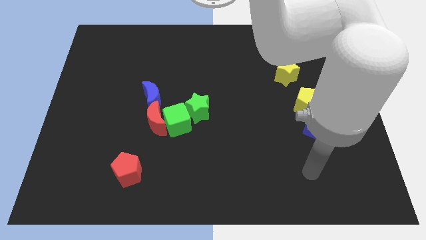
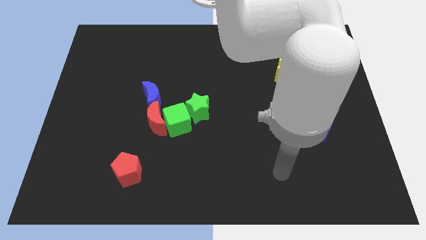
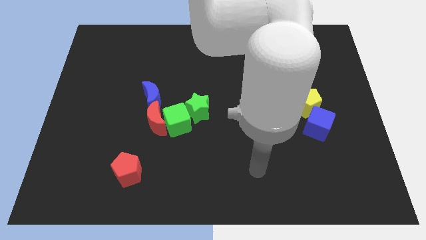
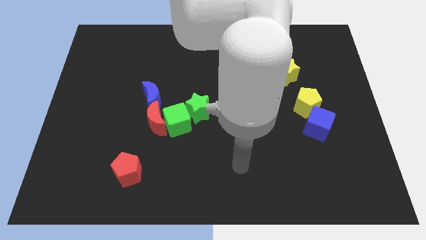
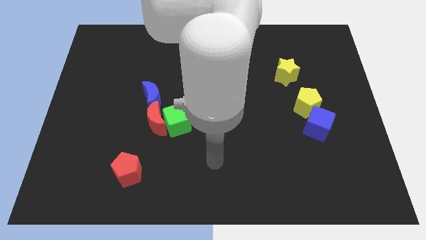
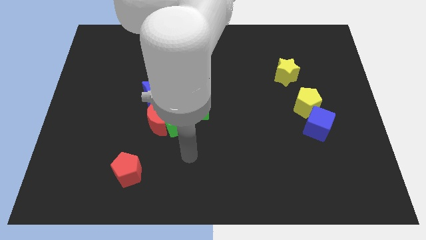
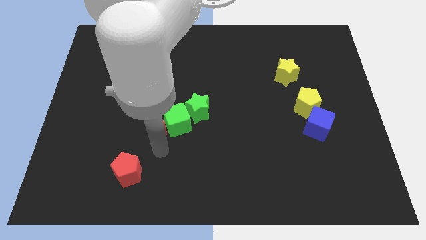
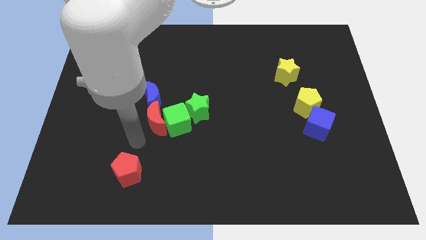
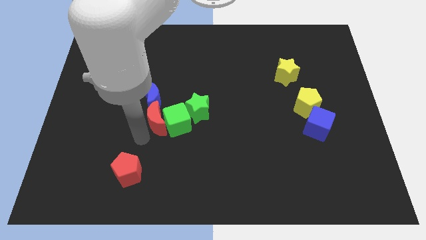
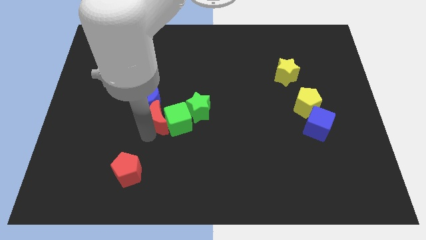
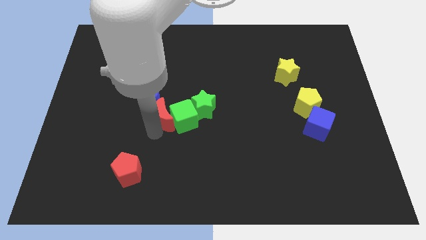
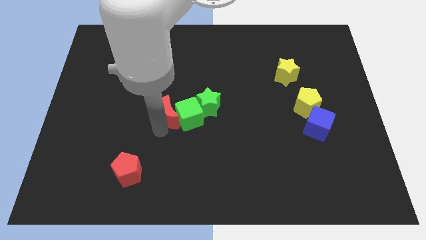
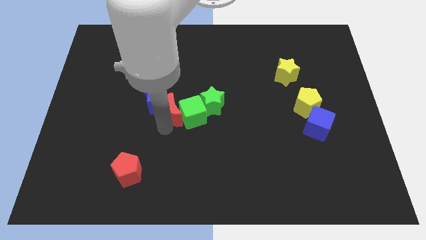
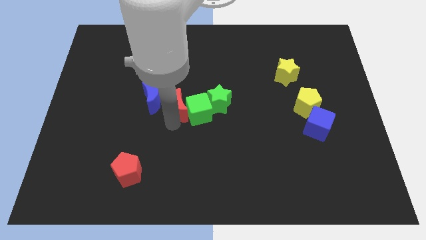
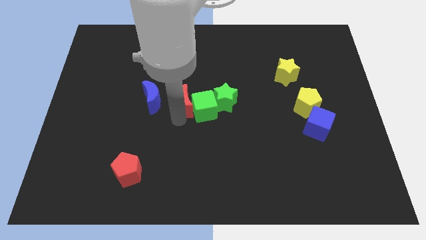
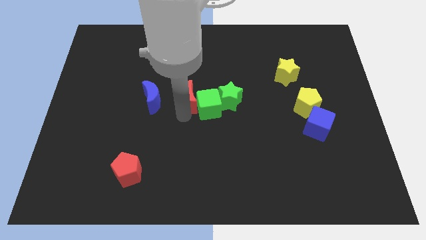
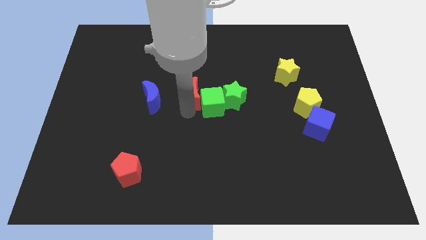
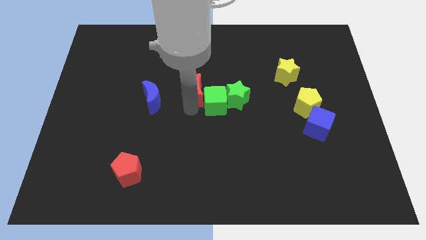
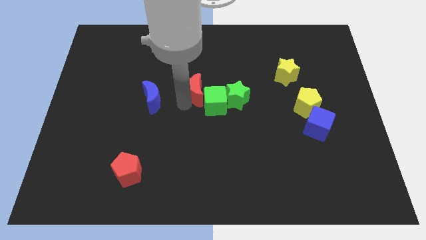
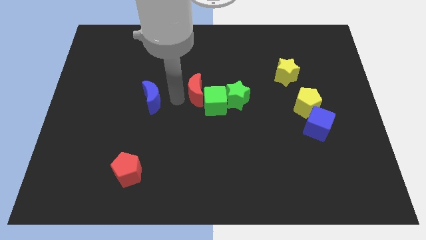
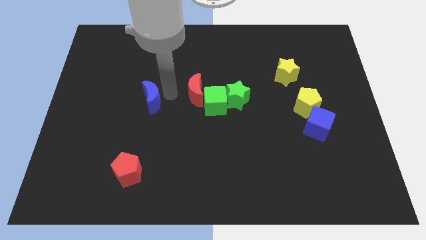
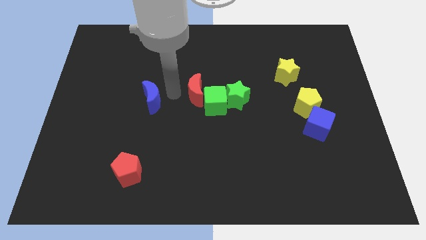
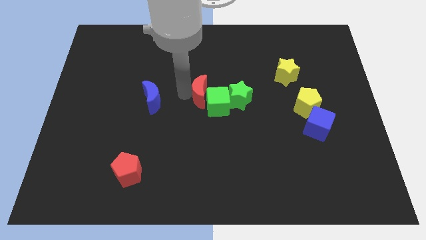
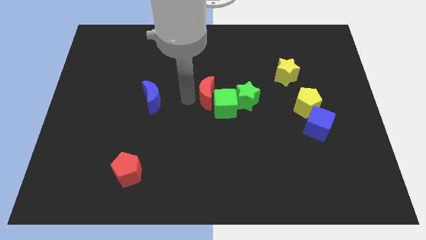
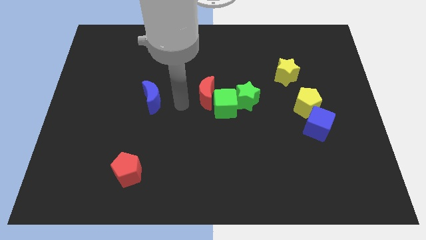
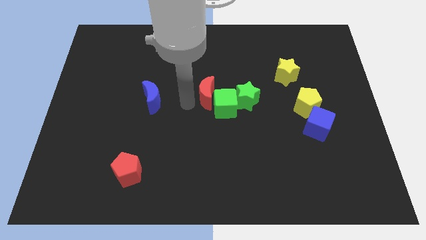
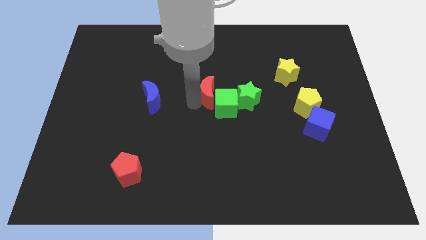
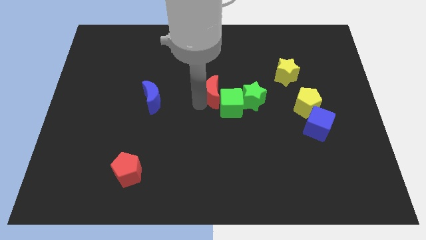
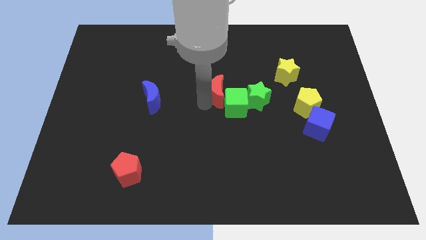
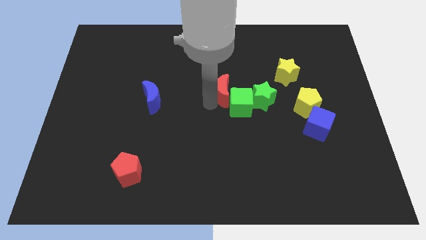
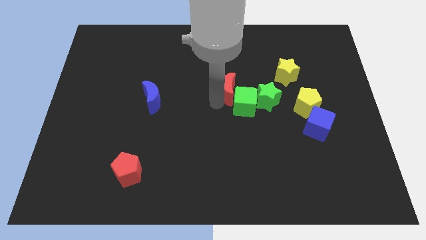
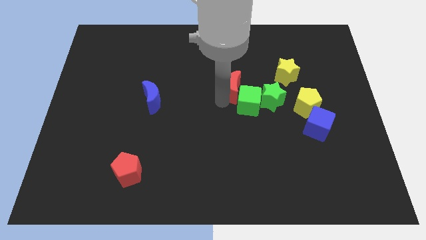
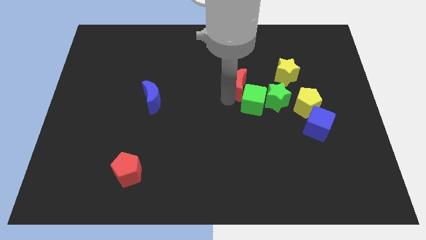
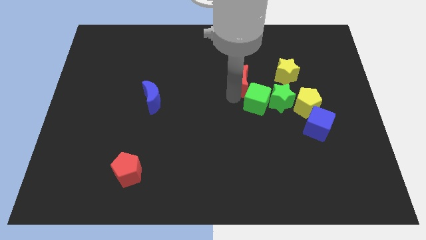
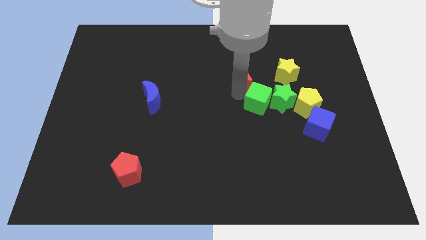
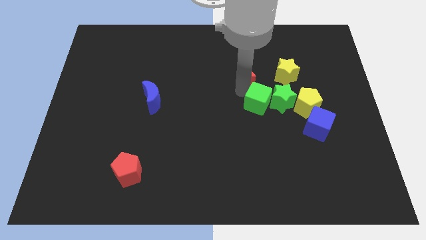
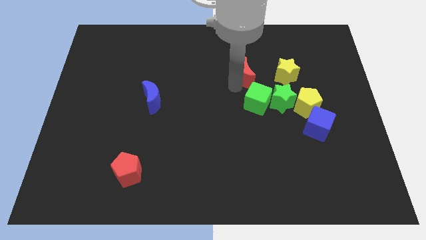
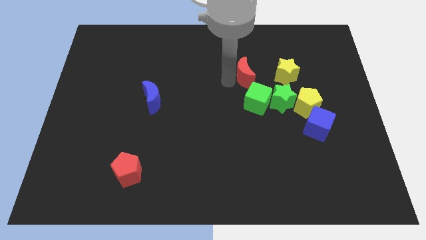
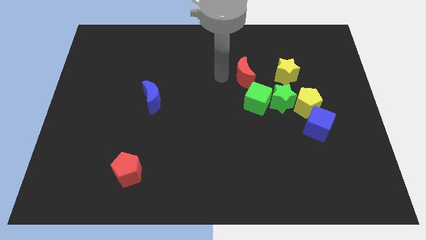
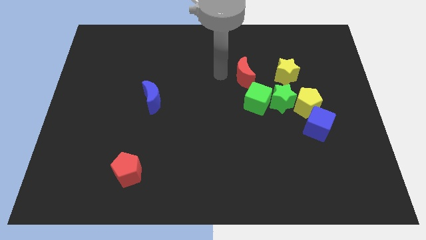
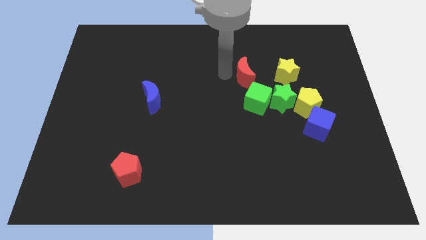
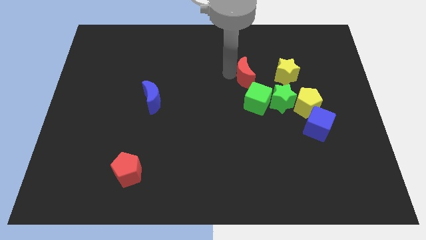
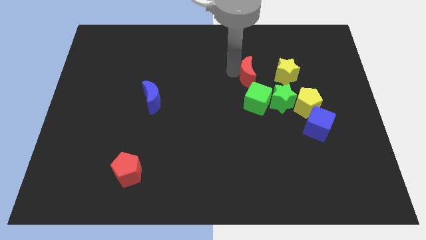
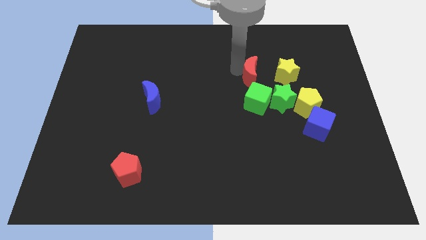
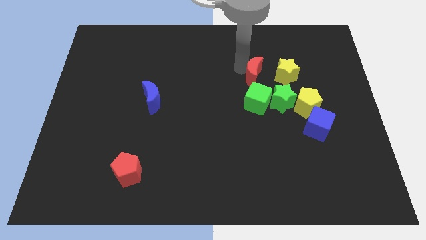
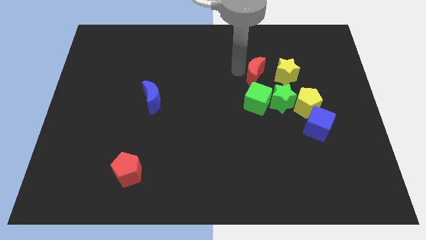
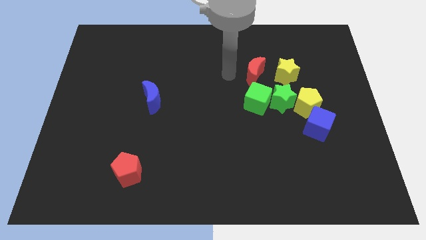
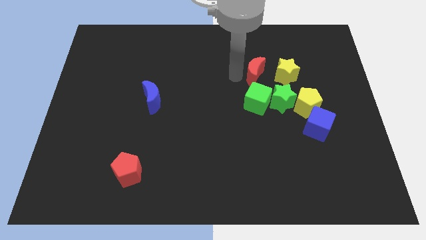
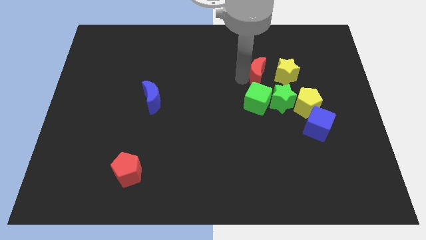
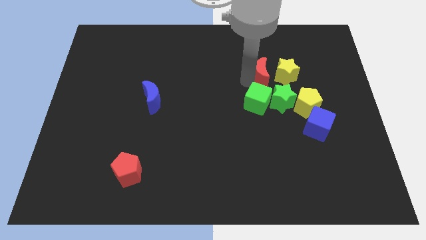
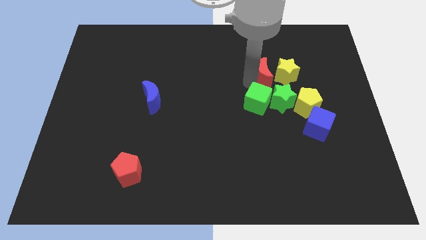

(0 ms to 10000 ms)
push the red moon to the yellow star

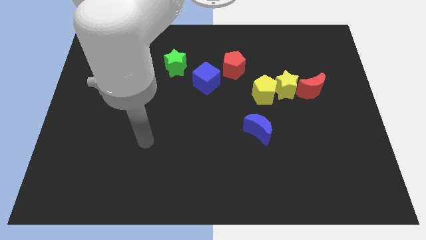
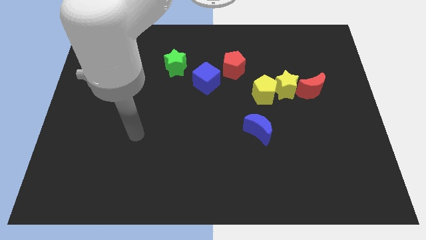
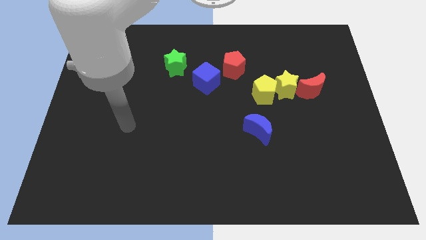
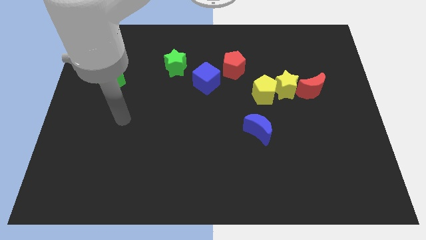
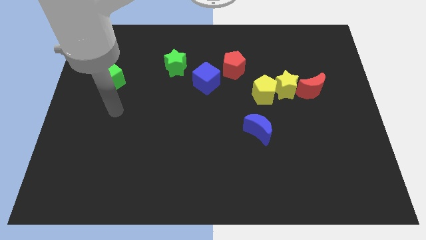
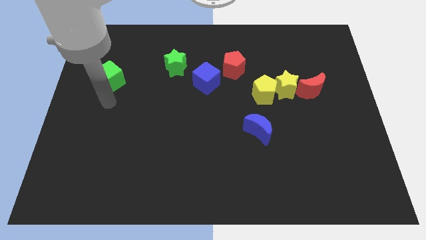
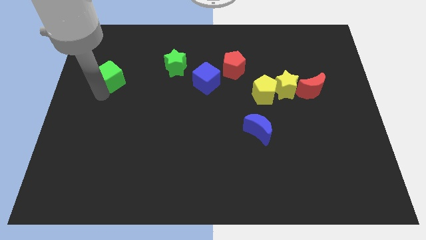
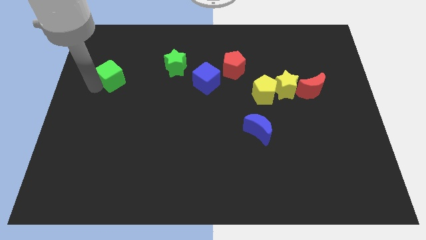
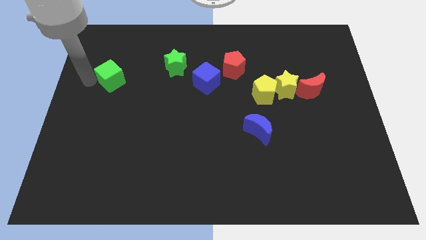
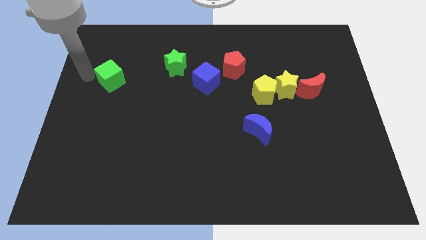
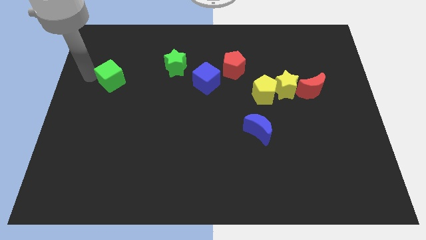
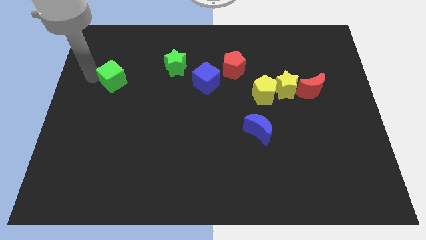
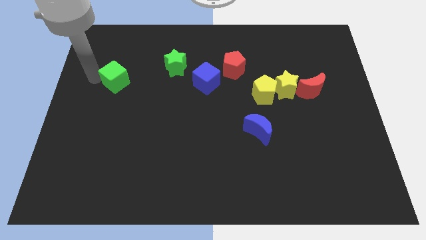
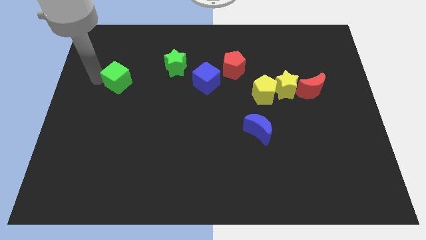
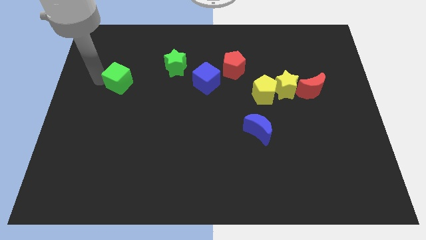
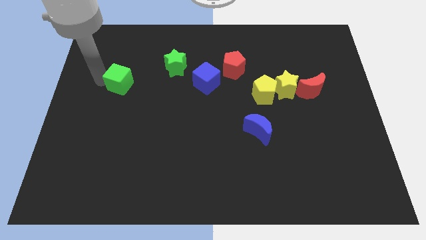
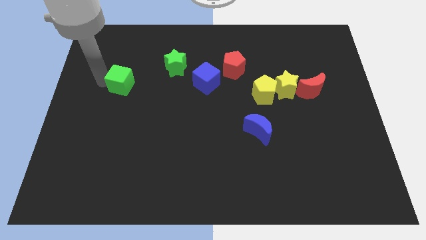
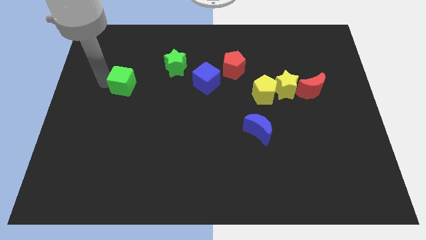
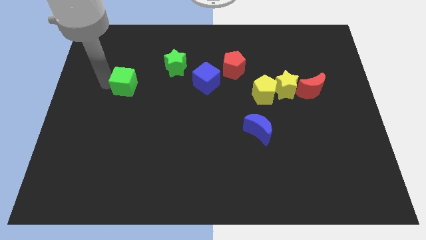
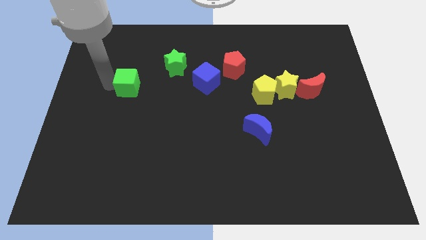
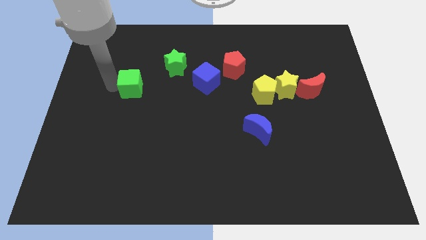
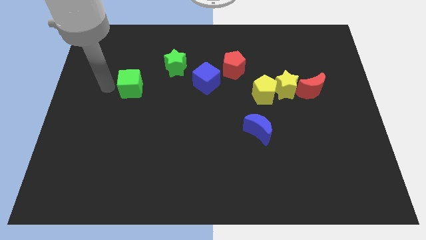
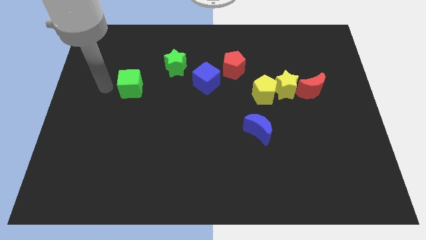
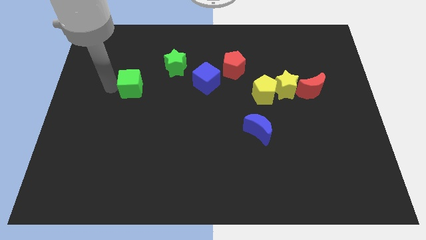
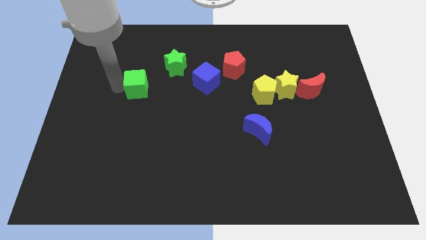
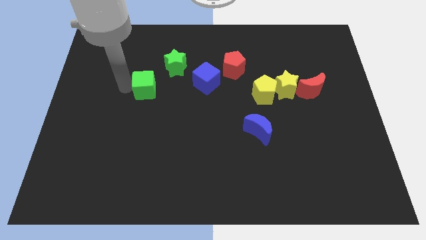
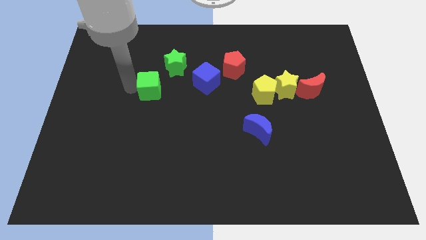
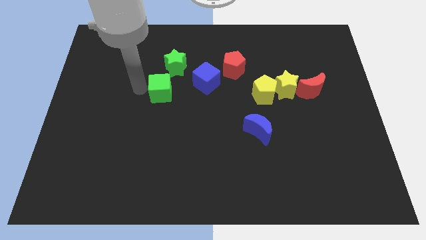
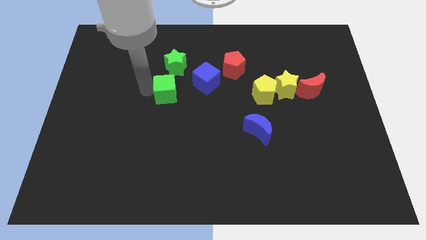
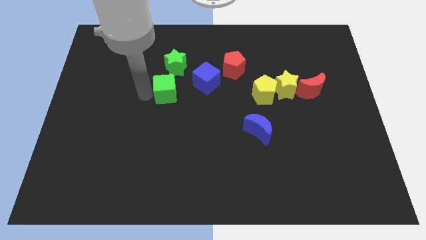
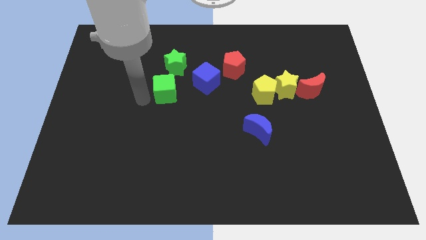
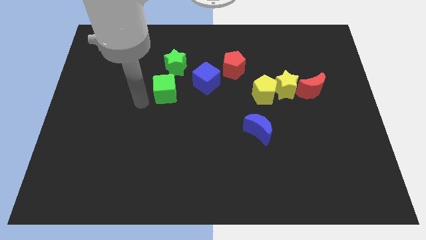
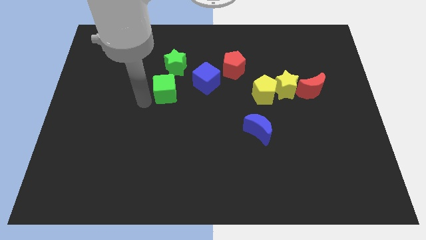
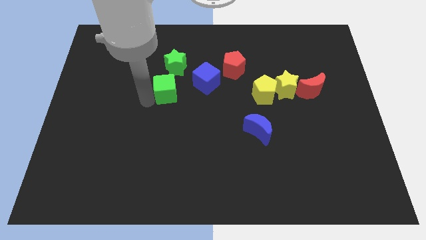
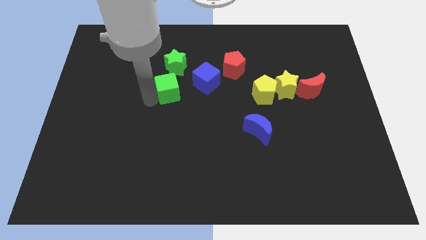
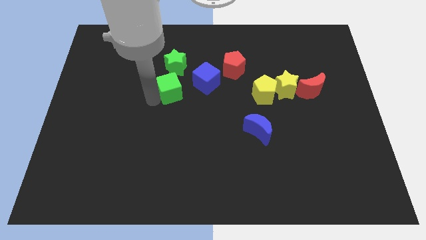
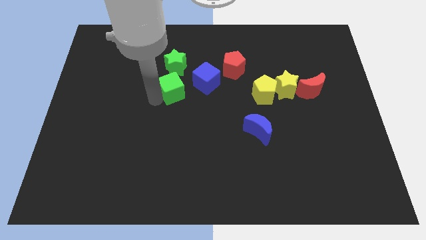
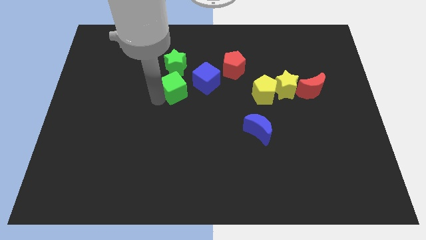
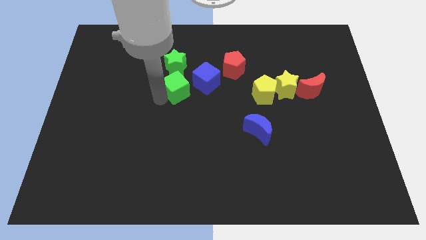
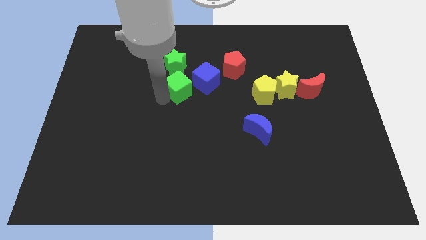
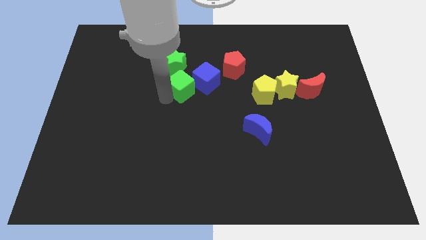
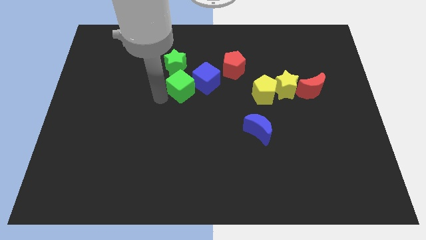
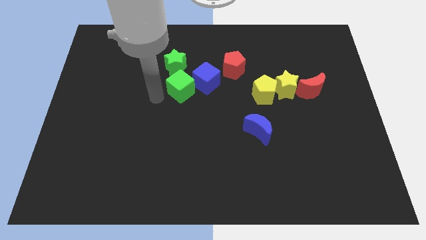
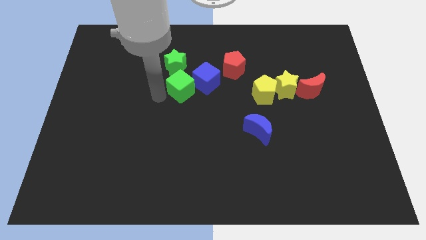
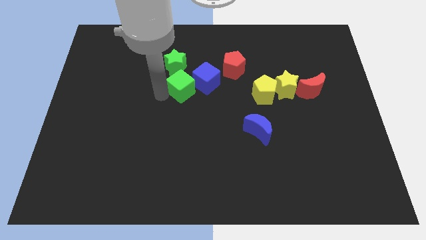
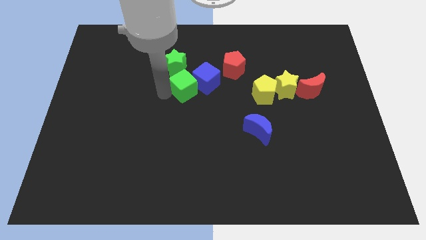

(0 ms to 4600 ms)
push the green cube towards the blue cube
